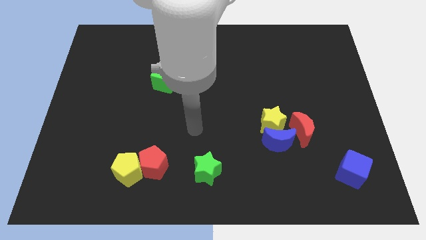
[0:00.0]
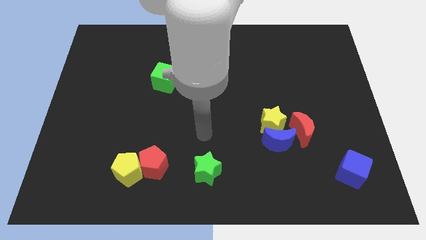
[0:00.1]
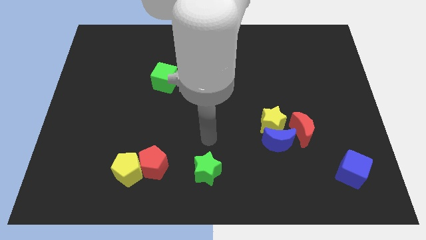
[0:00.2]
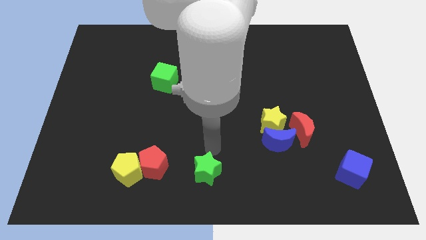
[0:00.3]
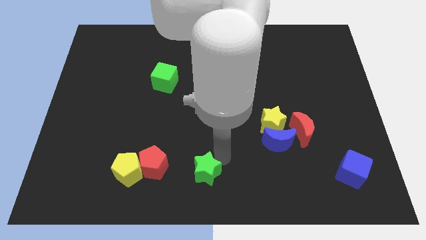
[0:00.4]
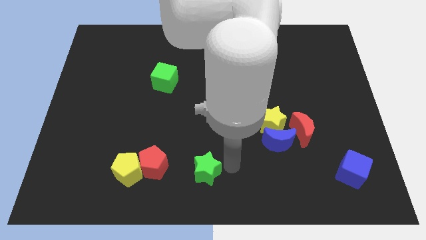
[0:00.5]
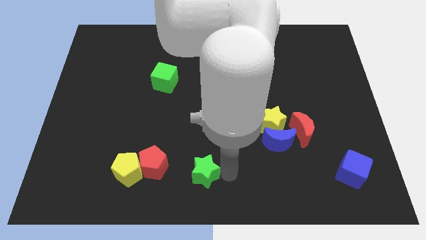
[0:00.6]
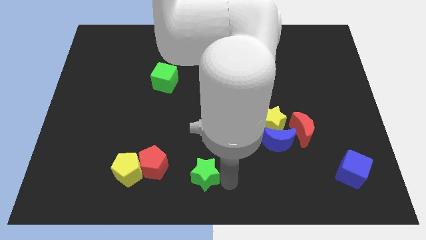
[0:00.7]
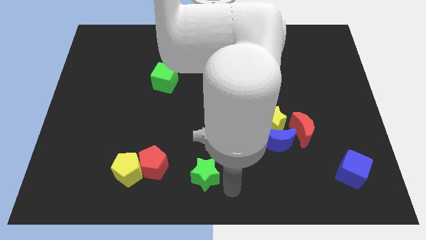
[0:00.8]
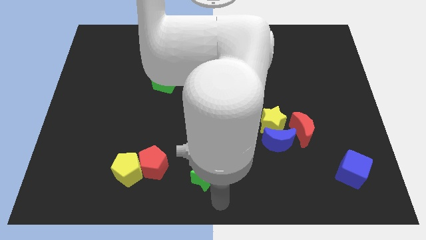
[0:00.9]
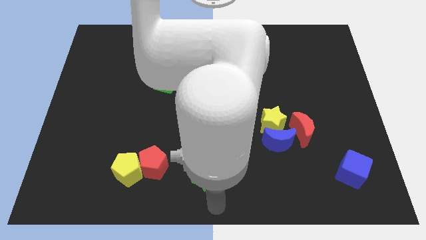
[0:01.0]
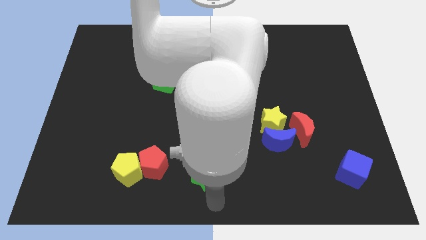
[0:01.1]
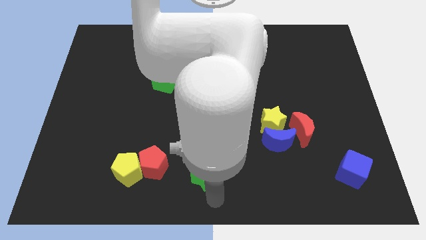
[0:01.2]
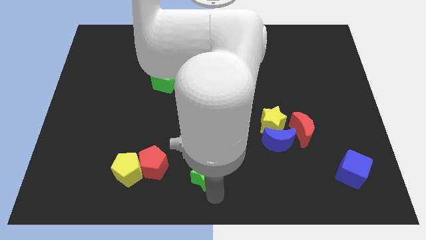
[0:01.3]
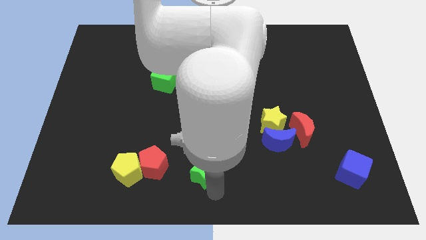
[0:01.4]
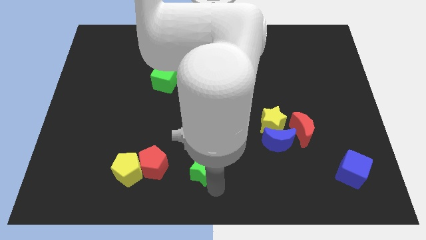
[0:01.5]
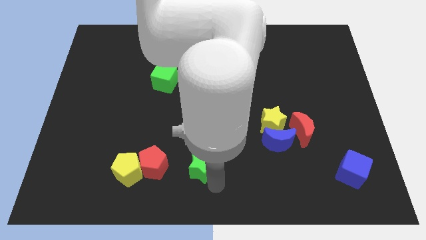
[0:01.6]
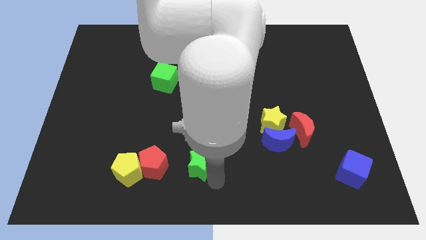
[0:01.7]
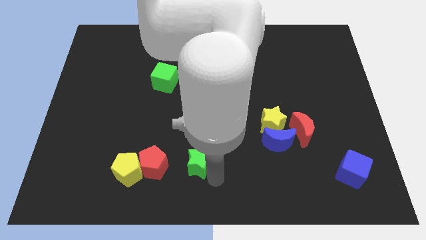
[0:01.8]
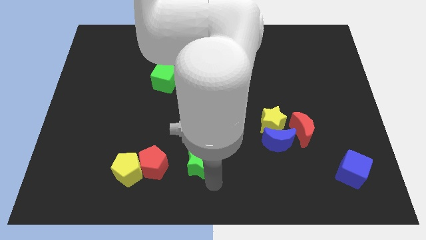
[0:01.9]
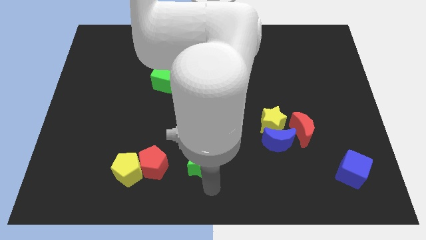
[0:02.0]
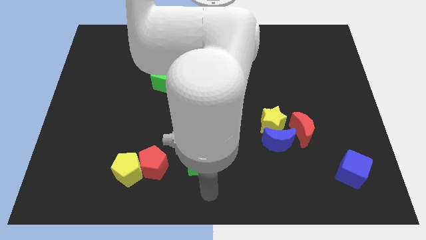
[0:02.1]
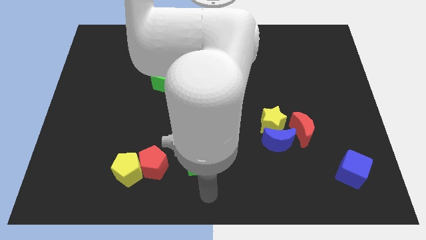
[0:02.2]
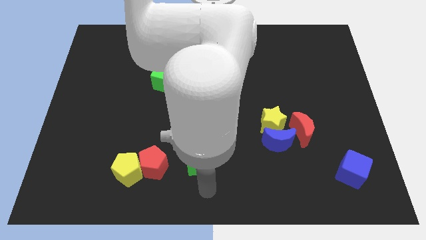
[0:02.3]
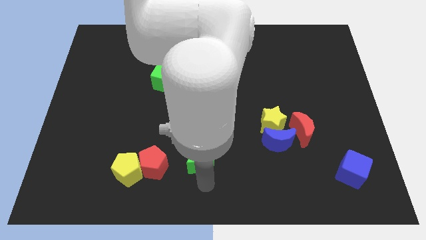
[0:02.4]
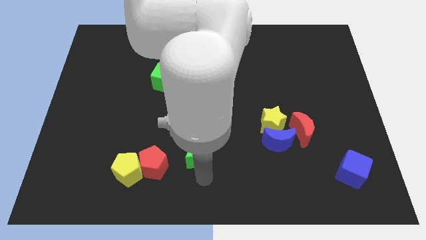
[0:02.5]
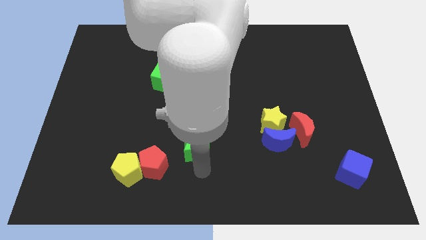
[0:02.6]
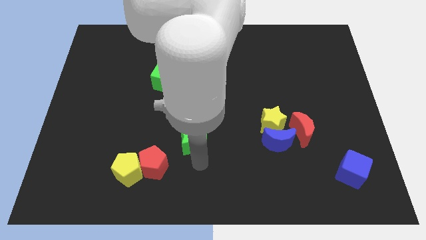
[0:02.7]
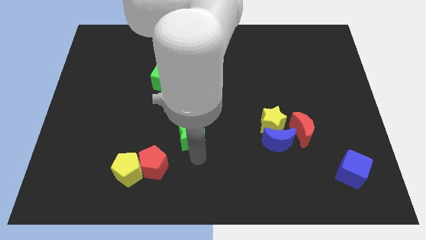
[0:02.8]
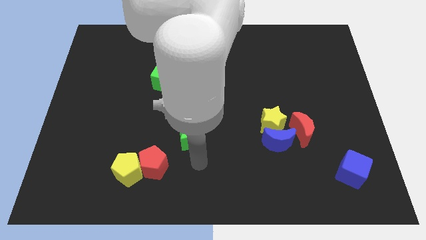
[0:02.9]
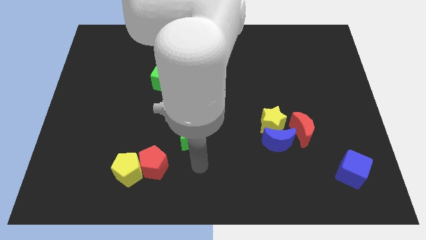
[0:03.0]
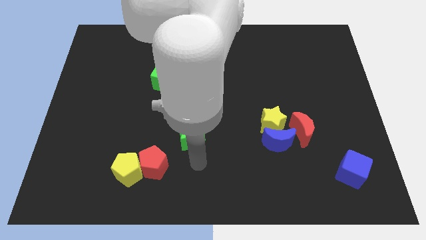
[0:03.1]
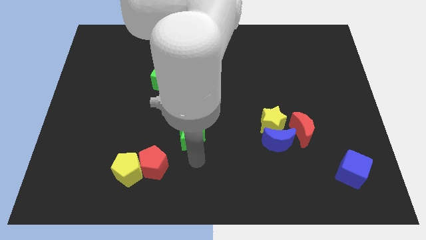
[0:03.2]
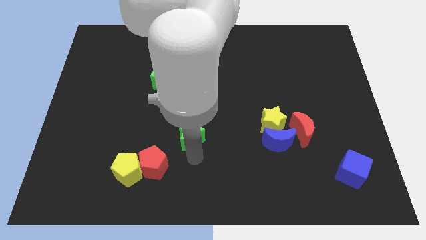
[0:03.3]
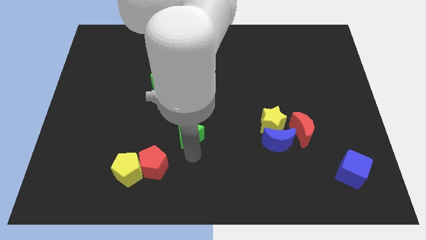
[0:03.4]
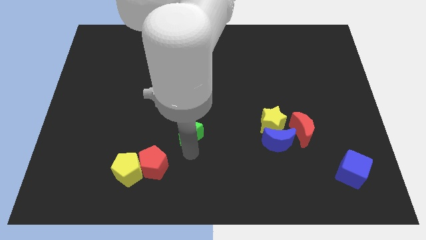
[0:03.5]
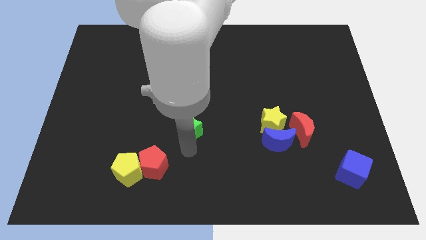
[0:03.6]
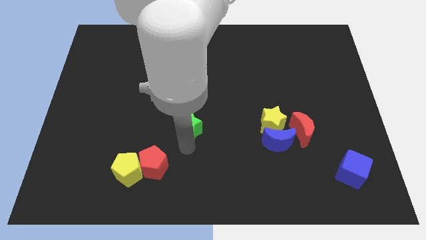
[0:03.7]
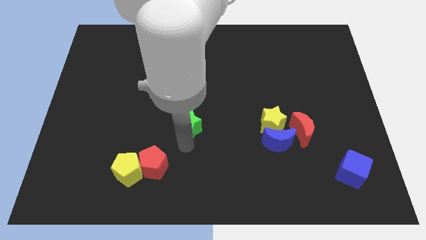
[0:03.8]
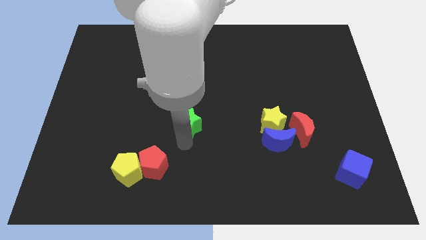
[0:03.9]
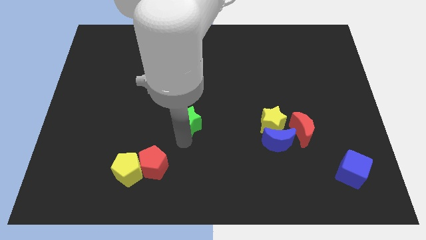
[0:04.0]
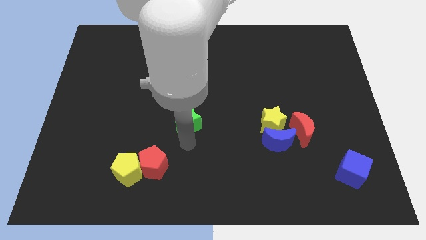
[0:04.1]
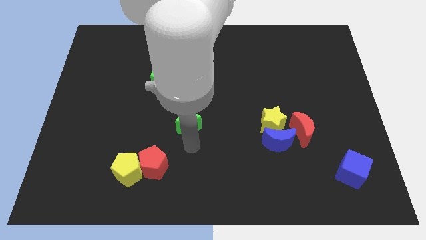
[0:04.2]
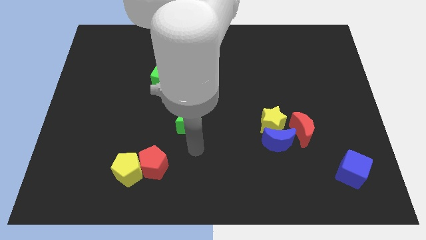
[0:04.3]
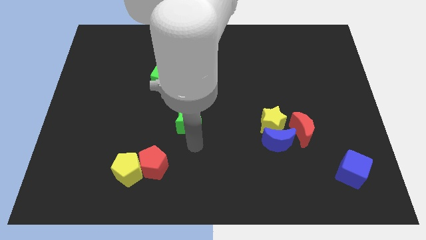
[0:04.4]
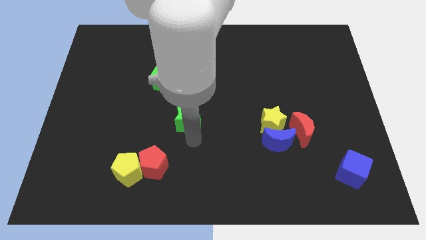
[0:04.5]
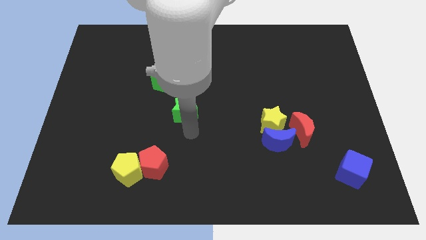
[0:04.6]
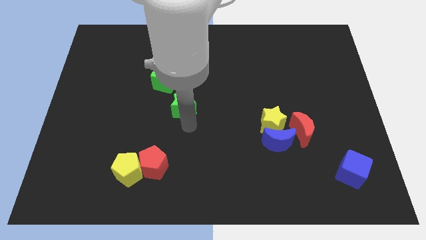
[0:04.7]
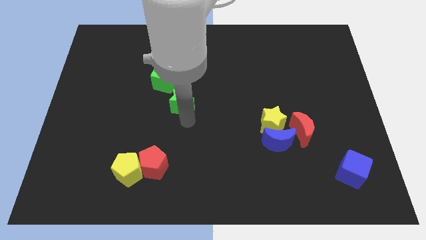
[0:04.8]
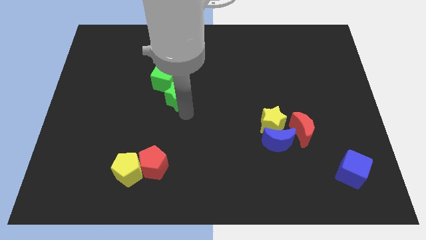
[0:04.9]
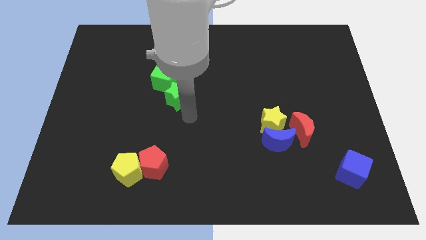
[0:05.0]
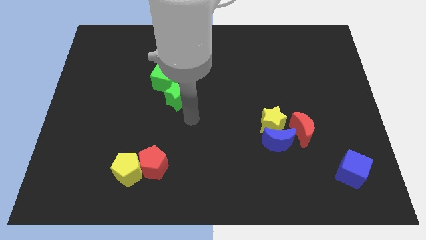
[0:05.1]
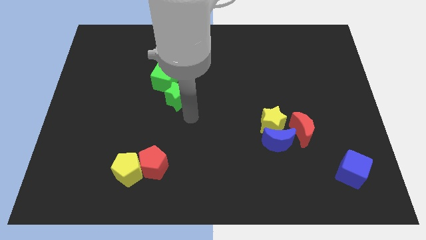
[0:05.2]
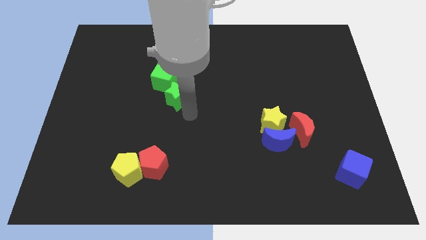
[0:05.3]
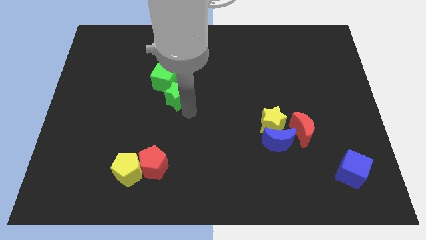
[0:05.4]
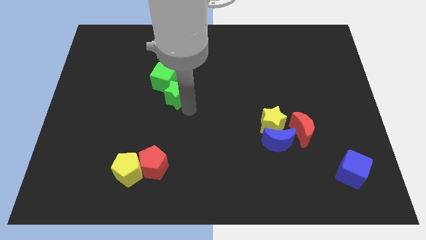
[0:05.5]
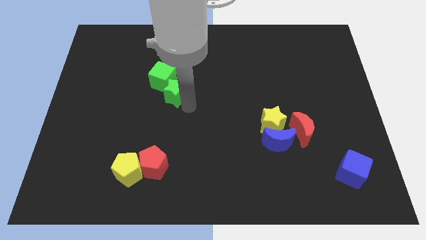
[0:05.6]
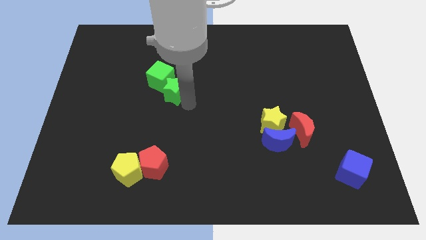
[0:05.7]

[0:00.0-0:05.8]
push the green star to the green cube

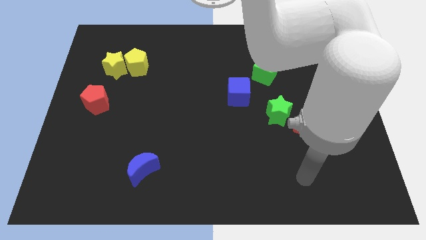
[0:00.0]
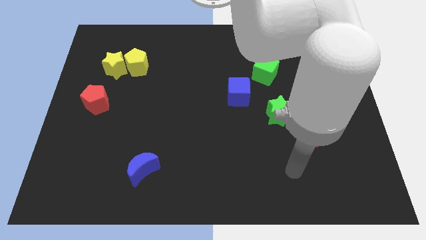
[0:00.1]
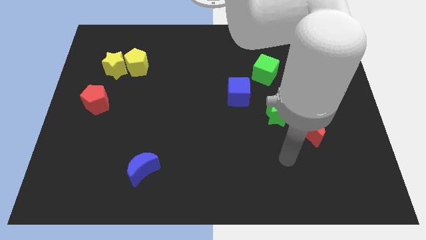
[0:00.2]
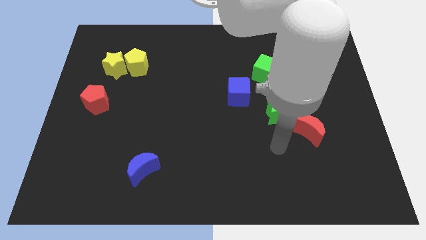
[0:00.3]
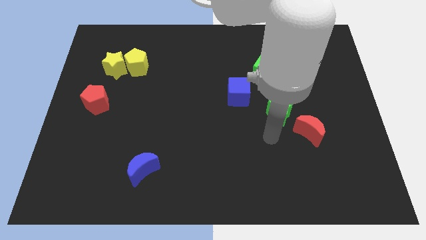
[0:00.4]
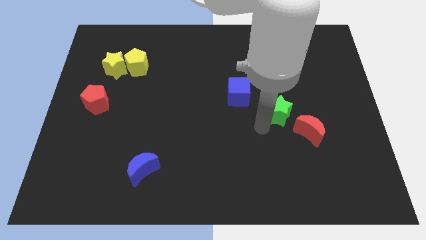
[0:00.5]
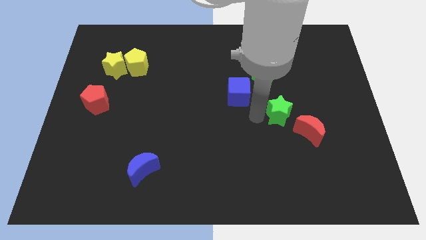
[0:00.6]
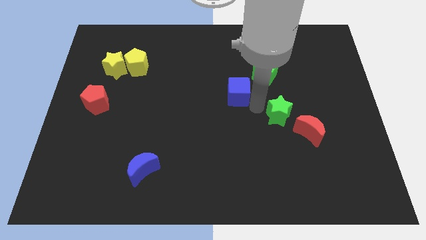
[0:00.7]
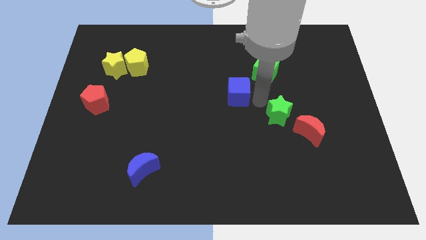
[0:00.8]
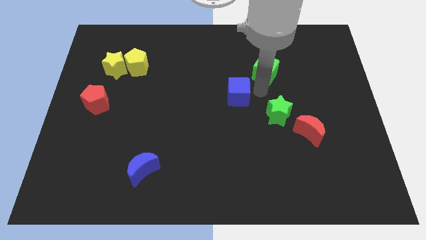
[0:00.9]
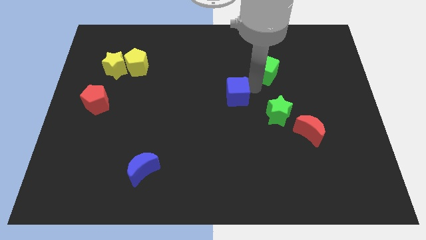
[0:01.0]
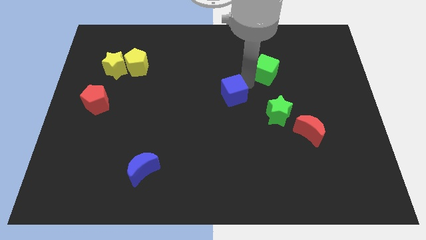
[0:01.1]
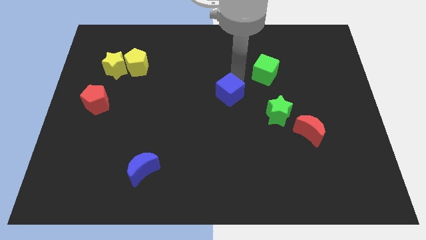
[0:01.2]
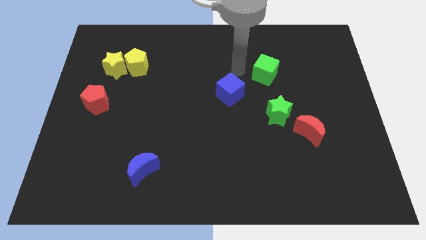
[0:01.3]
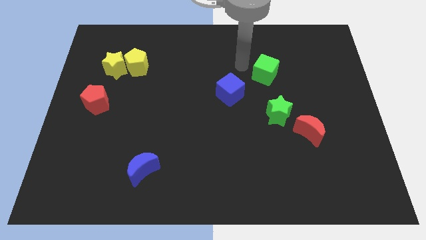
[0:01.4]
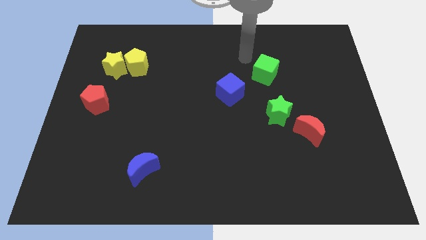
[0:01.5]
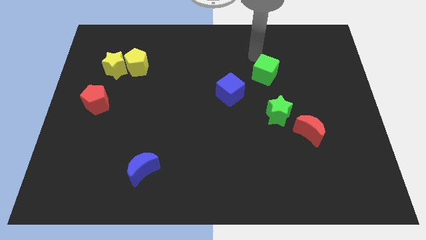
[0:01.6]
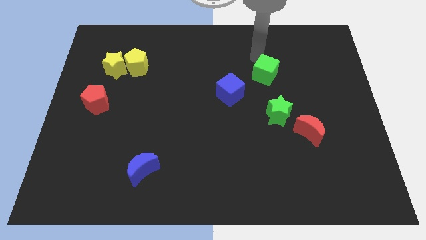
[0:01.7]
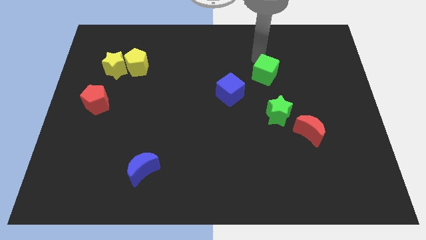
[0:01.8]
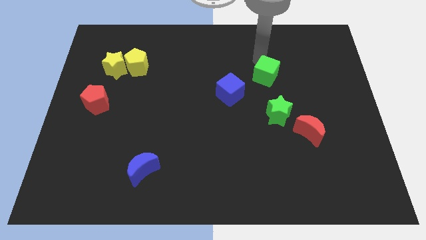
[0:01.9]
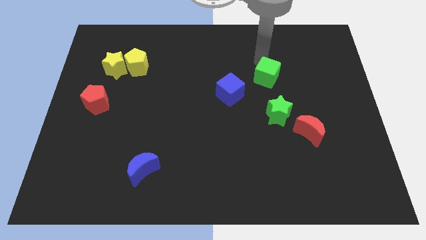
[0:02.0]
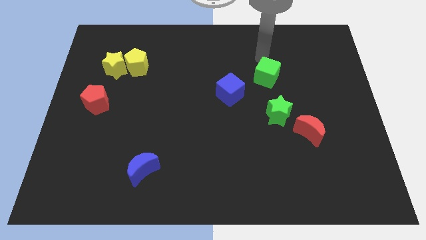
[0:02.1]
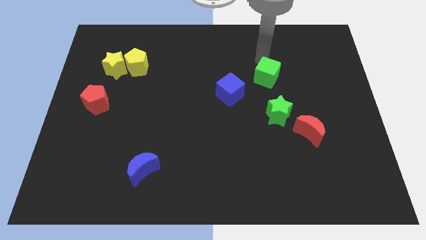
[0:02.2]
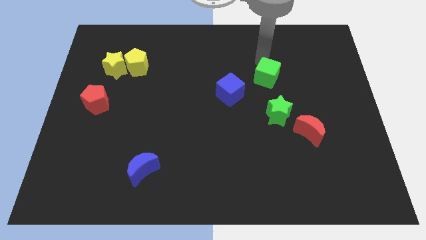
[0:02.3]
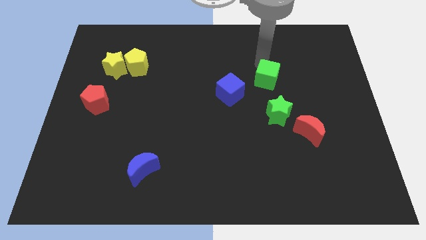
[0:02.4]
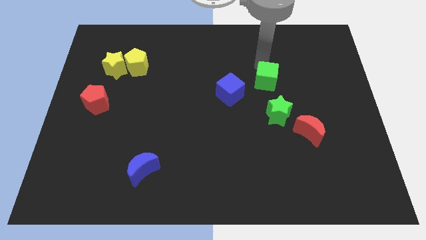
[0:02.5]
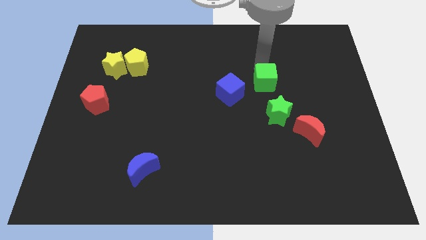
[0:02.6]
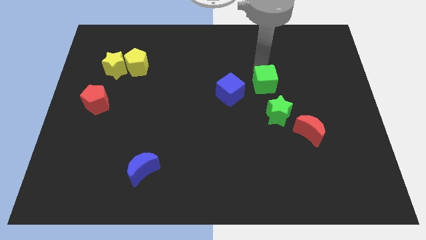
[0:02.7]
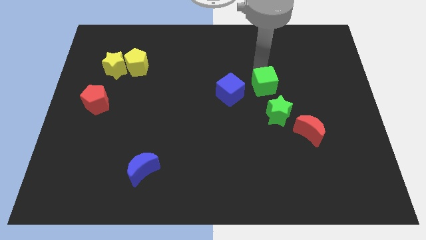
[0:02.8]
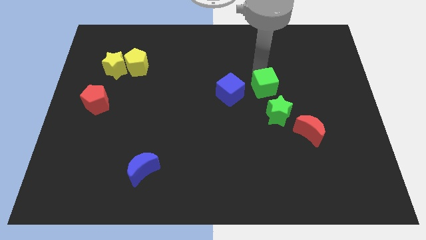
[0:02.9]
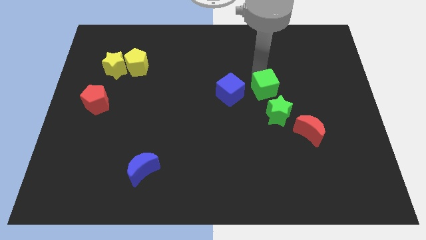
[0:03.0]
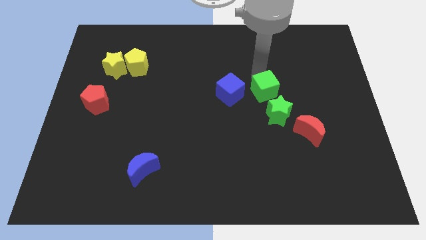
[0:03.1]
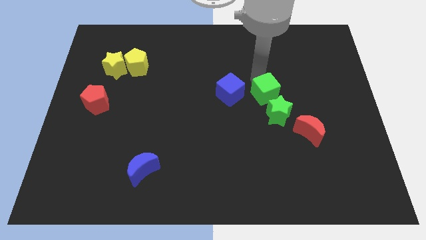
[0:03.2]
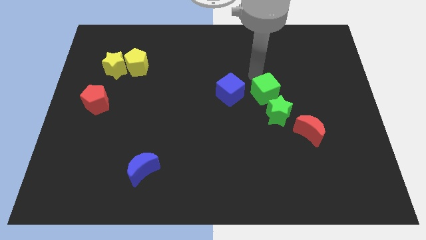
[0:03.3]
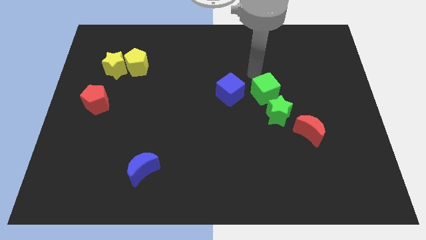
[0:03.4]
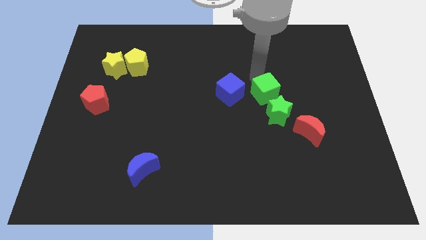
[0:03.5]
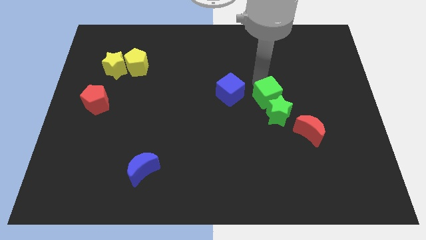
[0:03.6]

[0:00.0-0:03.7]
put the green cube towards the green star
